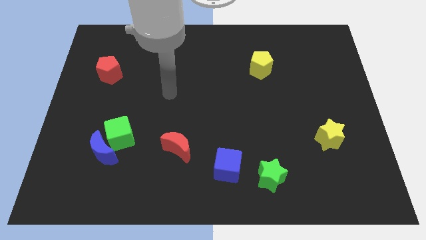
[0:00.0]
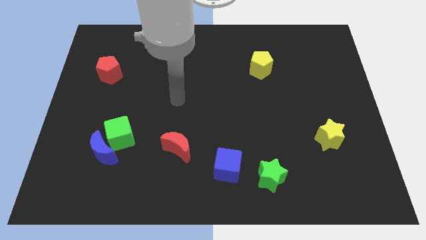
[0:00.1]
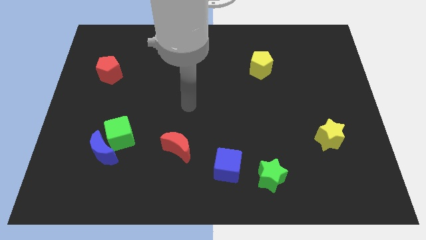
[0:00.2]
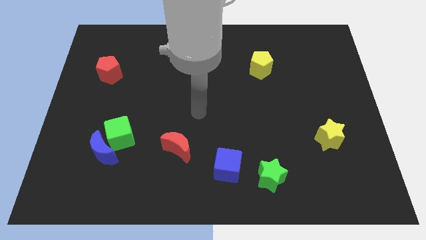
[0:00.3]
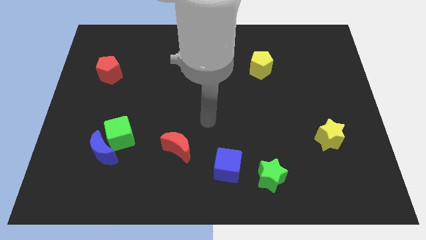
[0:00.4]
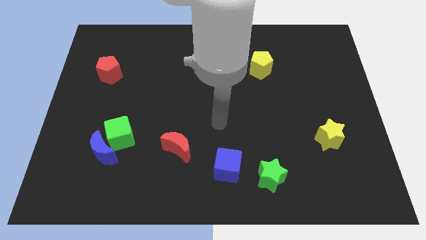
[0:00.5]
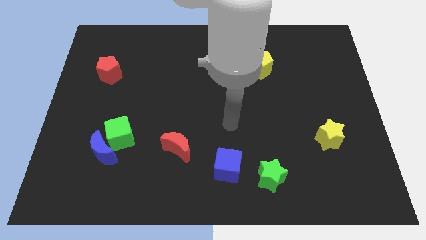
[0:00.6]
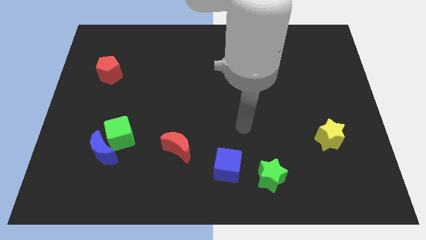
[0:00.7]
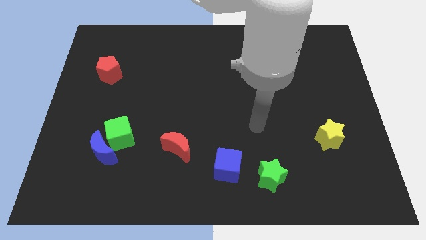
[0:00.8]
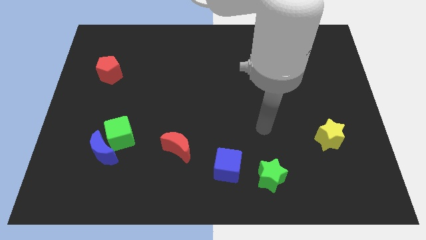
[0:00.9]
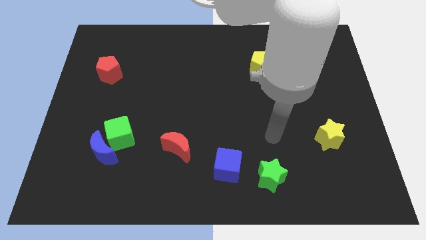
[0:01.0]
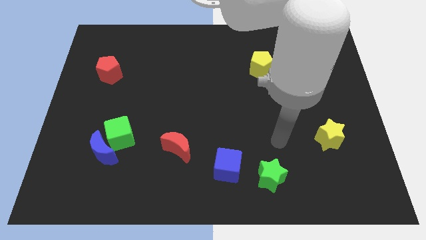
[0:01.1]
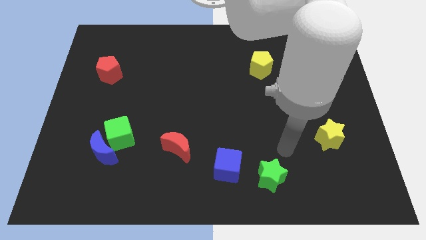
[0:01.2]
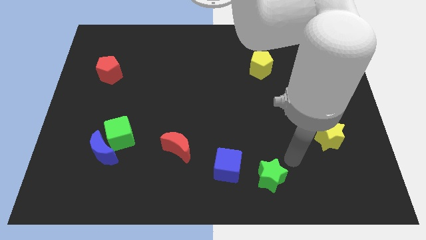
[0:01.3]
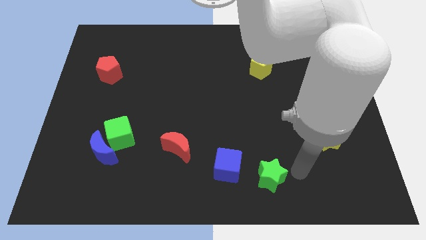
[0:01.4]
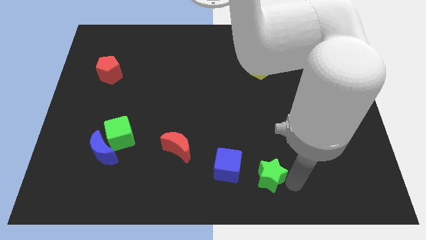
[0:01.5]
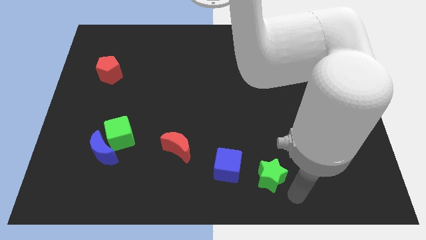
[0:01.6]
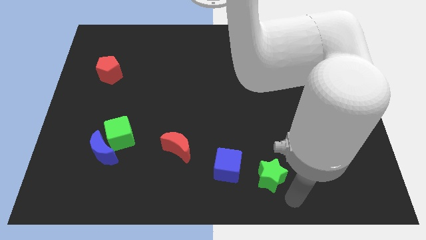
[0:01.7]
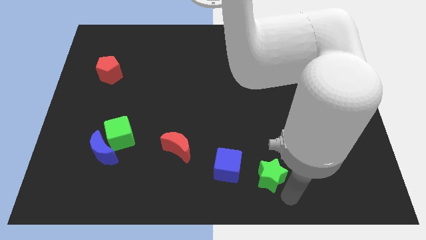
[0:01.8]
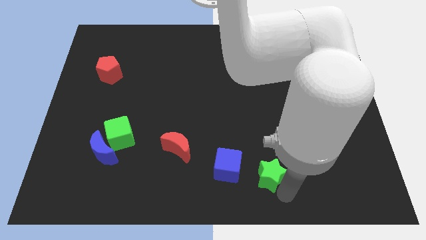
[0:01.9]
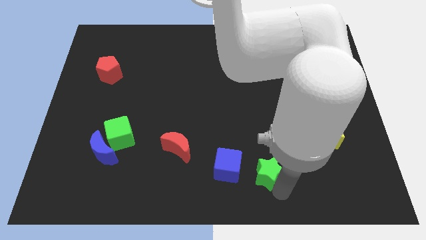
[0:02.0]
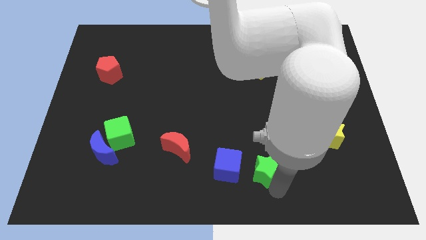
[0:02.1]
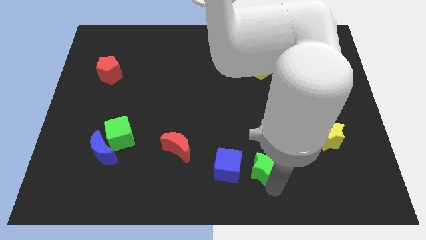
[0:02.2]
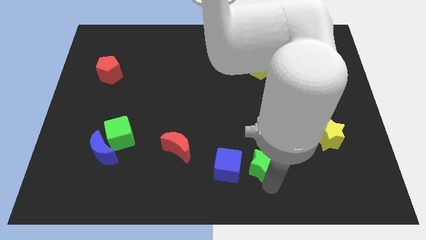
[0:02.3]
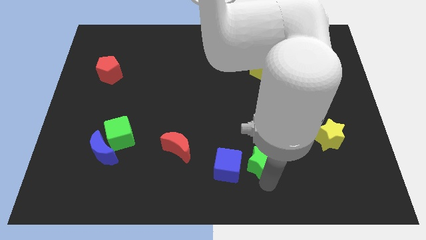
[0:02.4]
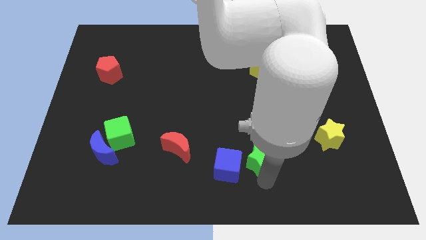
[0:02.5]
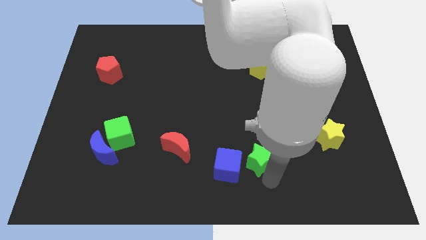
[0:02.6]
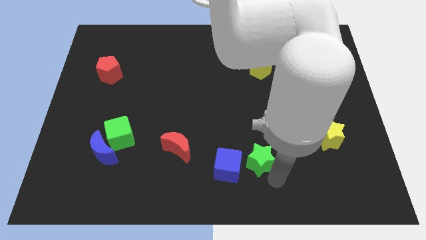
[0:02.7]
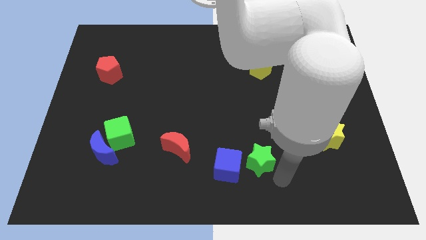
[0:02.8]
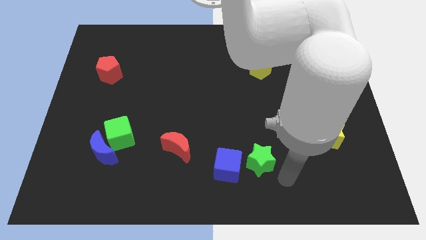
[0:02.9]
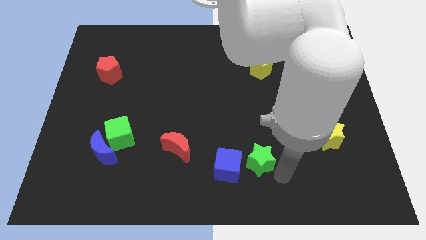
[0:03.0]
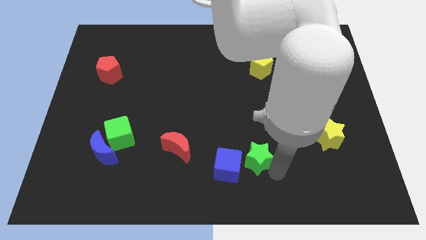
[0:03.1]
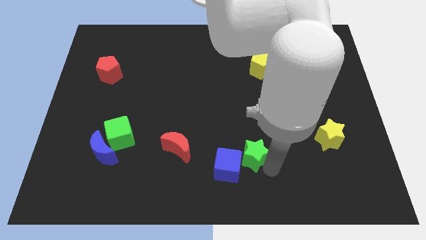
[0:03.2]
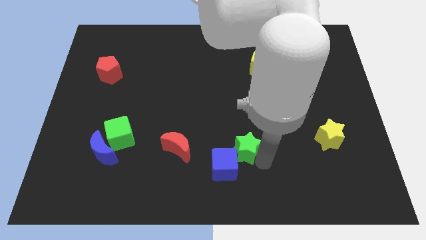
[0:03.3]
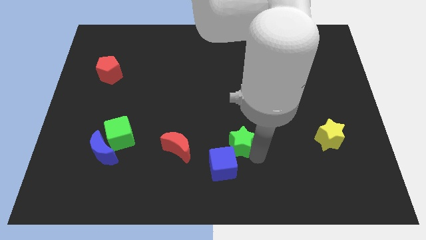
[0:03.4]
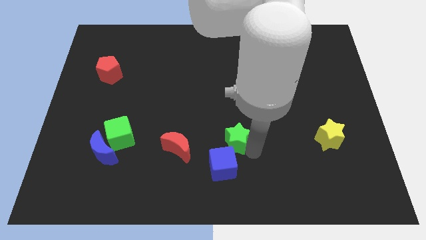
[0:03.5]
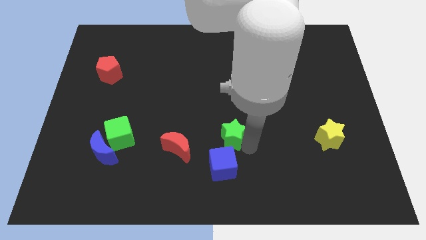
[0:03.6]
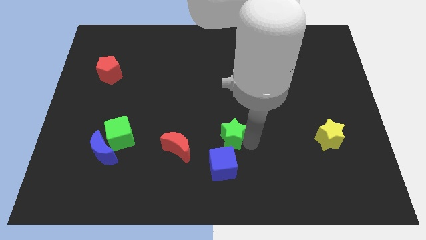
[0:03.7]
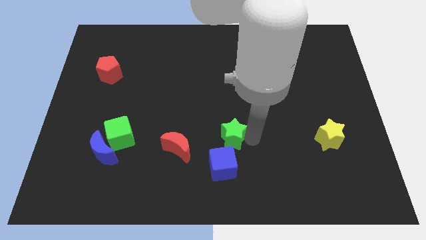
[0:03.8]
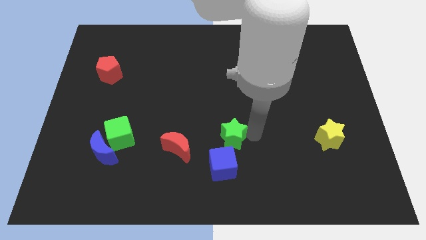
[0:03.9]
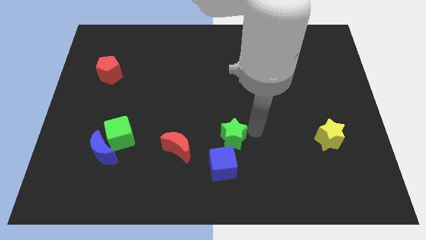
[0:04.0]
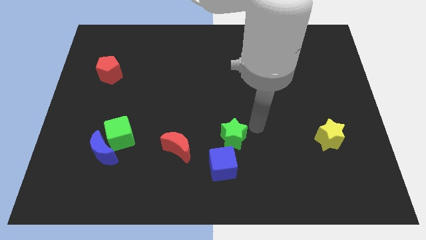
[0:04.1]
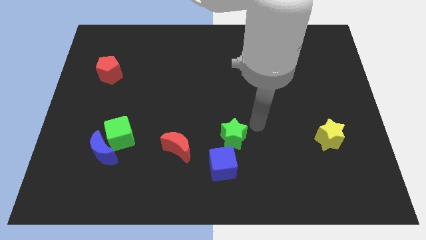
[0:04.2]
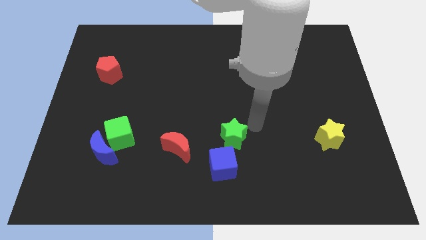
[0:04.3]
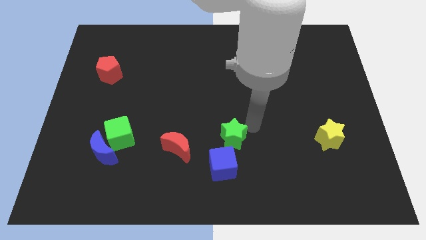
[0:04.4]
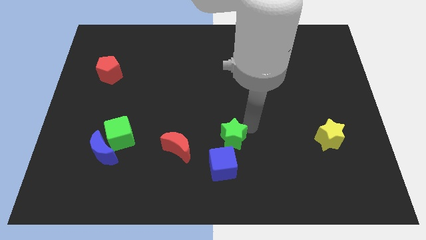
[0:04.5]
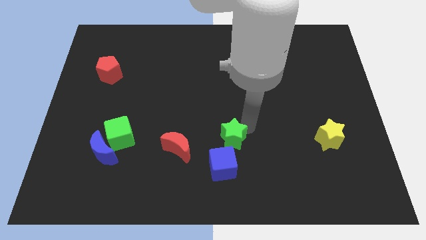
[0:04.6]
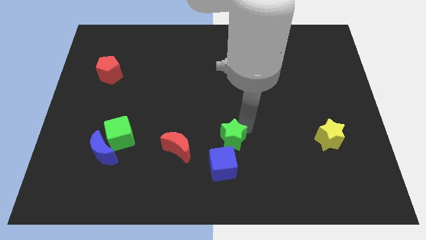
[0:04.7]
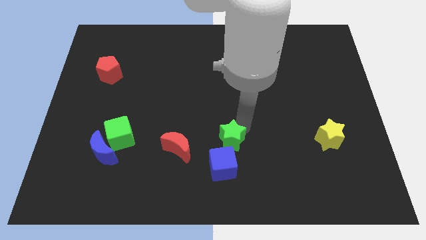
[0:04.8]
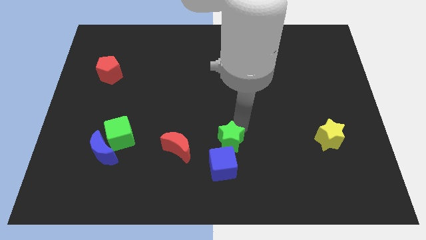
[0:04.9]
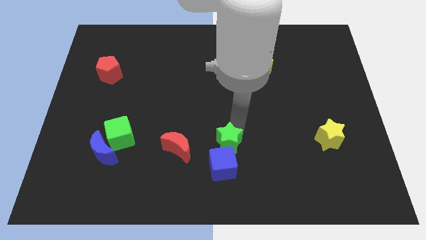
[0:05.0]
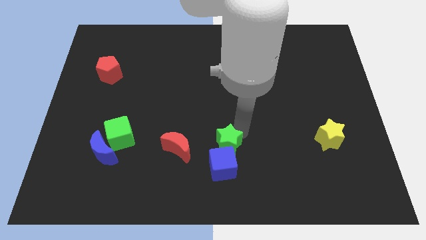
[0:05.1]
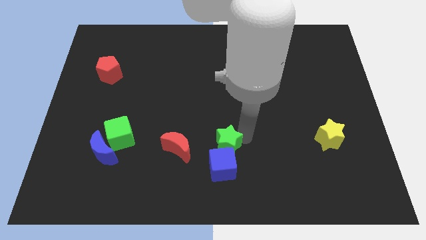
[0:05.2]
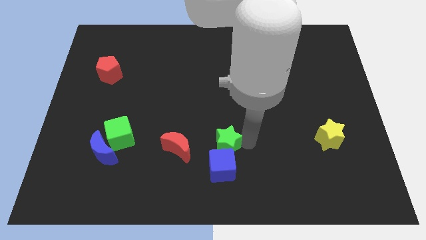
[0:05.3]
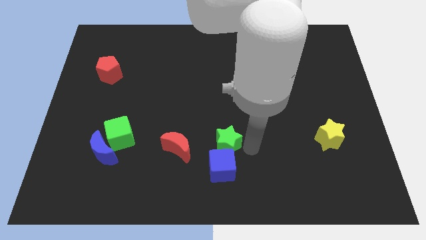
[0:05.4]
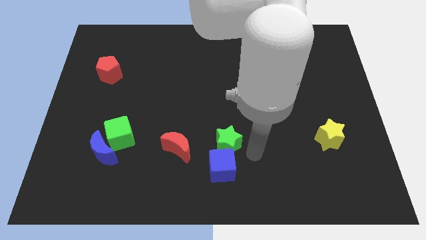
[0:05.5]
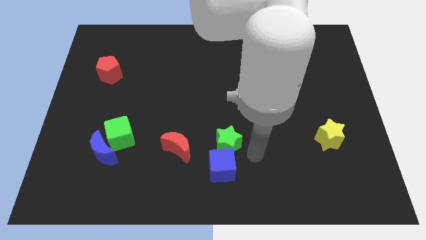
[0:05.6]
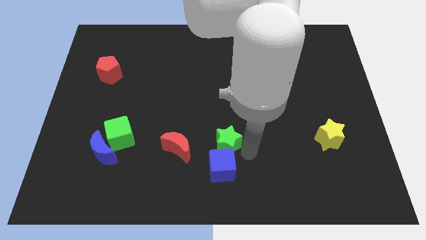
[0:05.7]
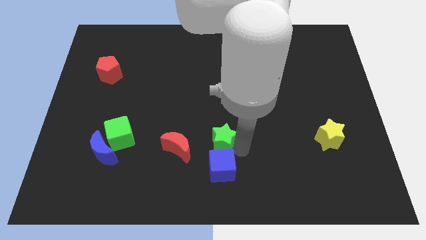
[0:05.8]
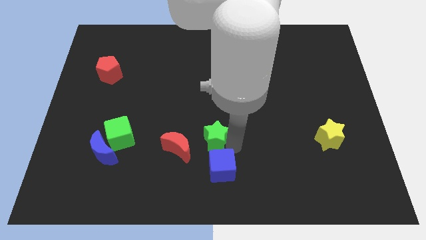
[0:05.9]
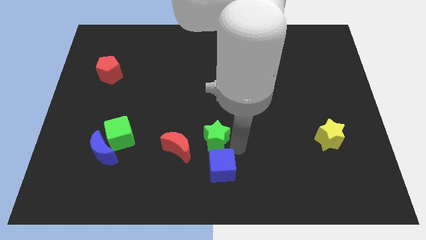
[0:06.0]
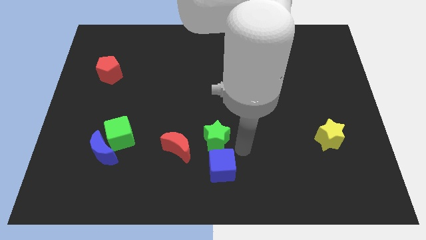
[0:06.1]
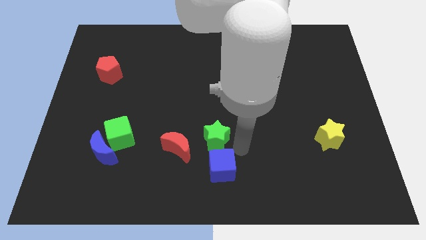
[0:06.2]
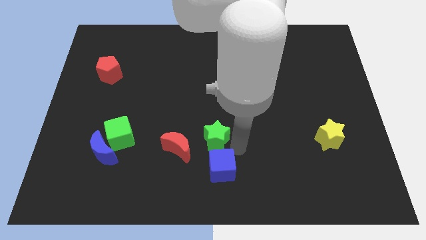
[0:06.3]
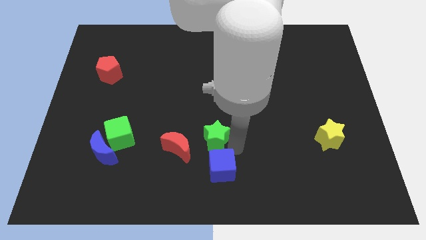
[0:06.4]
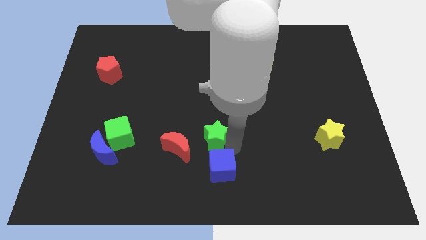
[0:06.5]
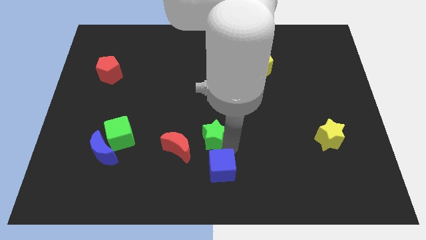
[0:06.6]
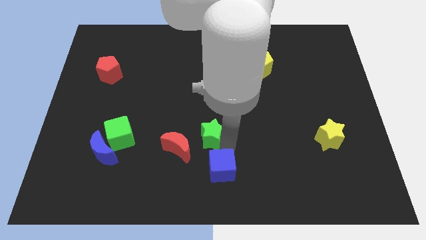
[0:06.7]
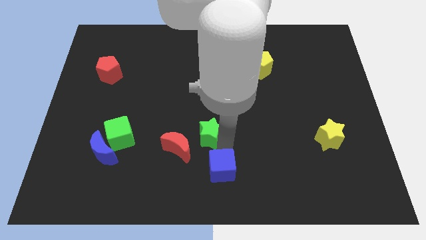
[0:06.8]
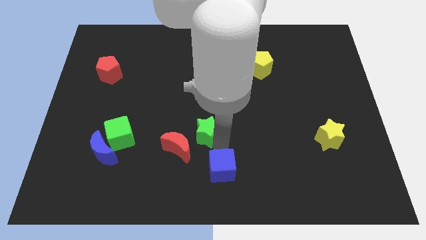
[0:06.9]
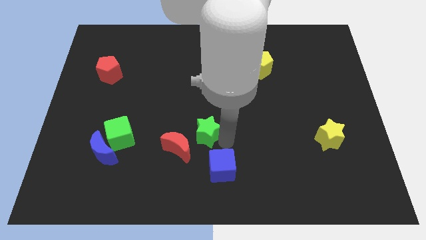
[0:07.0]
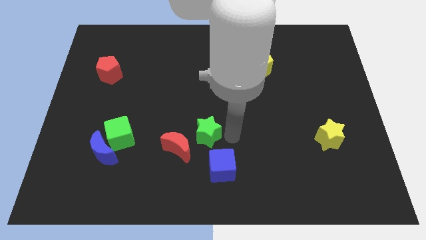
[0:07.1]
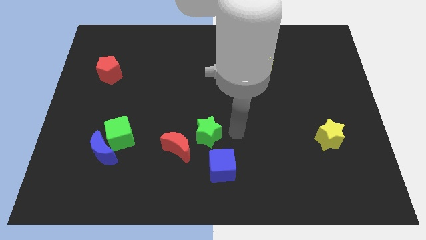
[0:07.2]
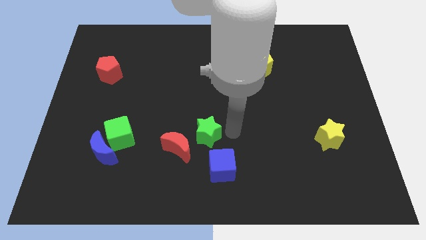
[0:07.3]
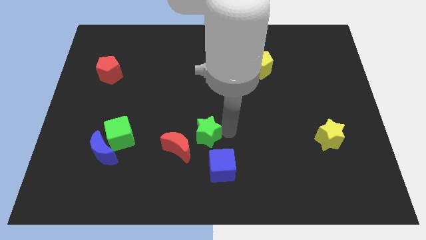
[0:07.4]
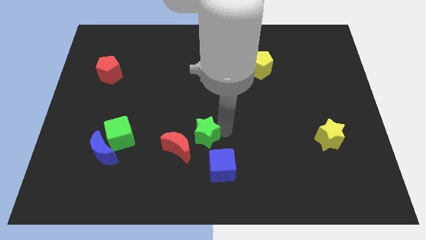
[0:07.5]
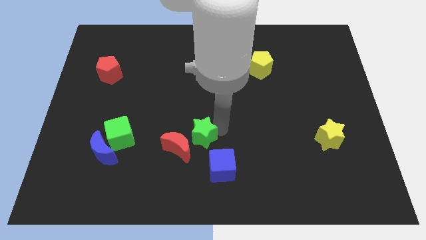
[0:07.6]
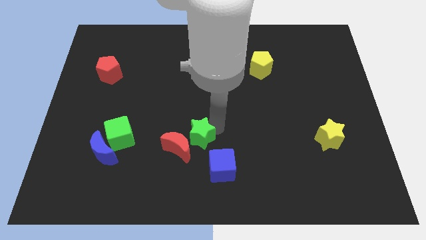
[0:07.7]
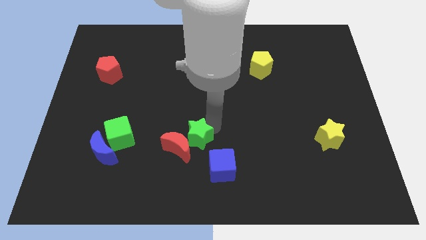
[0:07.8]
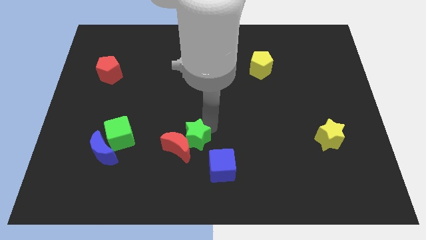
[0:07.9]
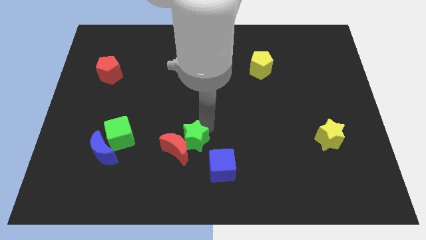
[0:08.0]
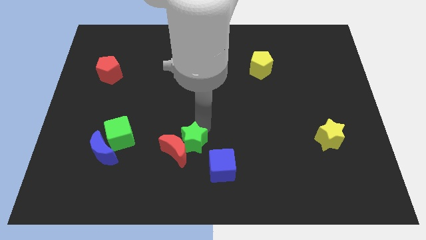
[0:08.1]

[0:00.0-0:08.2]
push the green star right of the green cube
